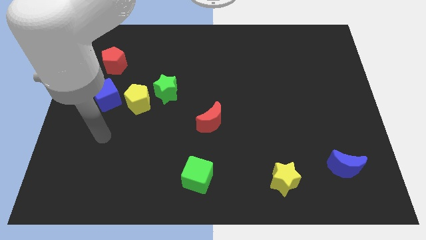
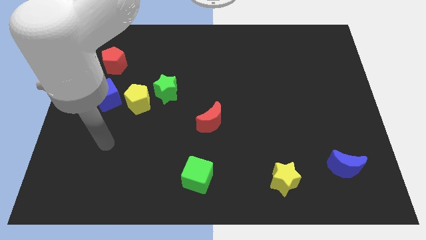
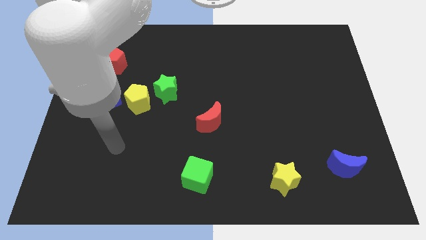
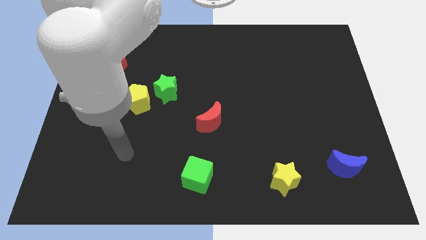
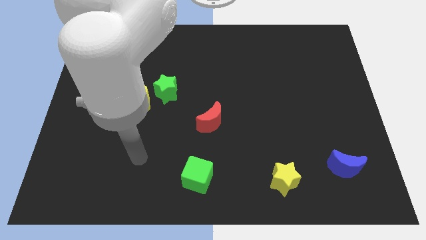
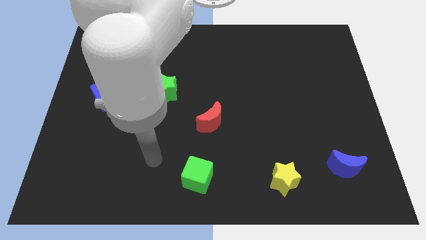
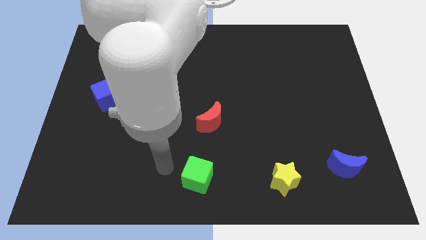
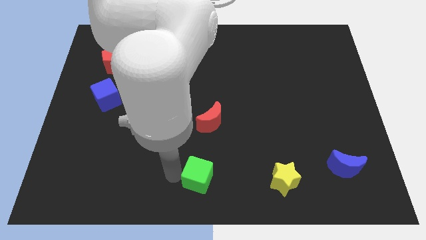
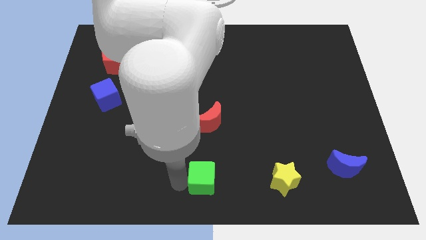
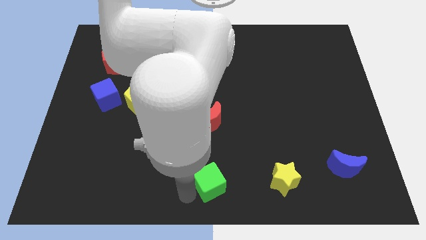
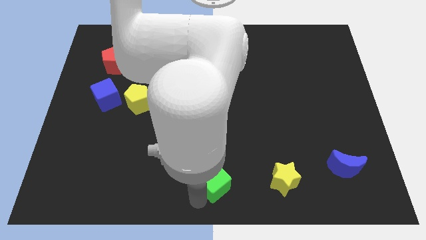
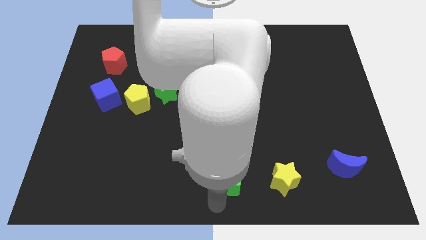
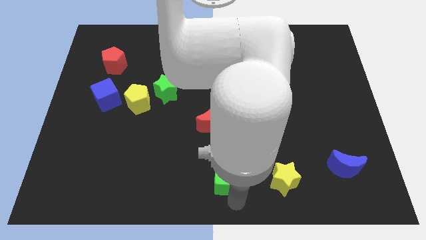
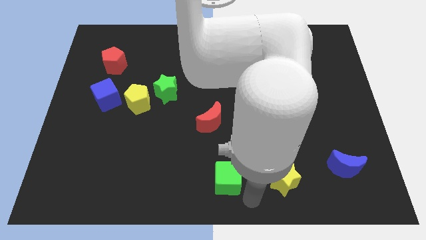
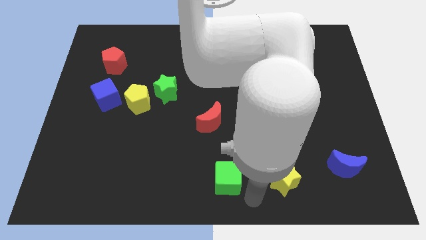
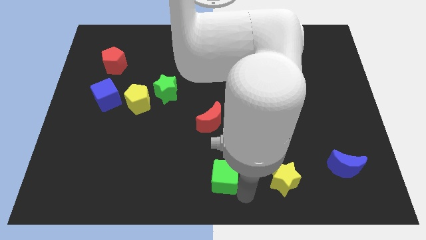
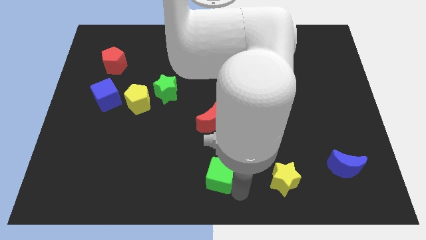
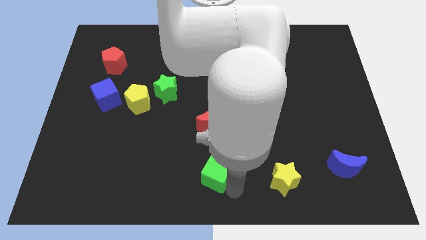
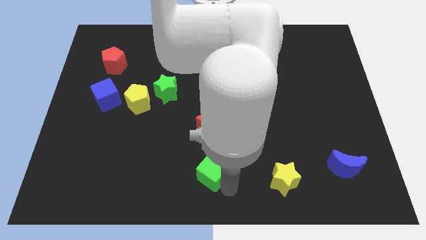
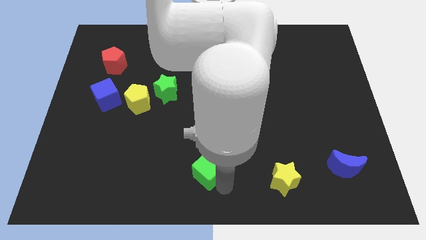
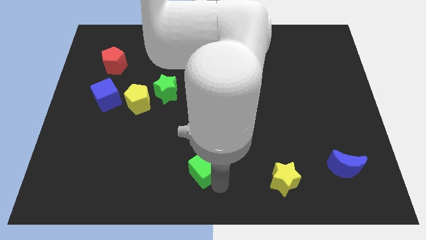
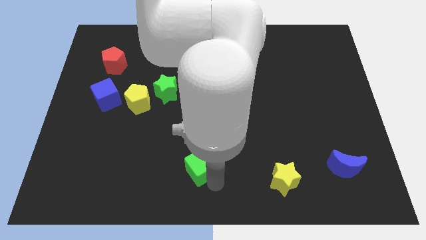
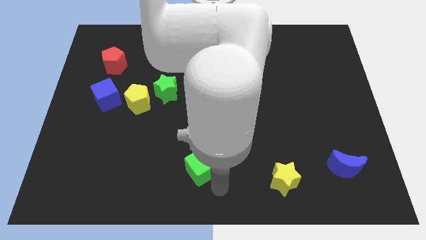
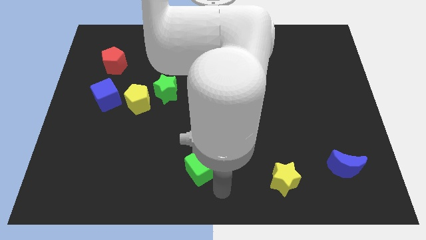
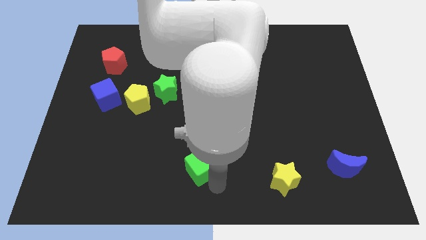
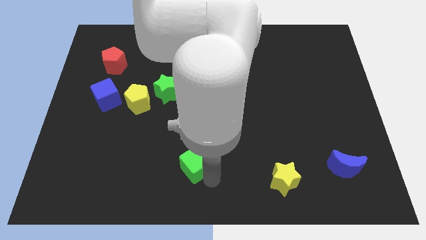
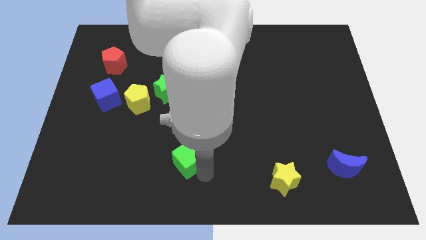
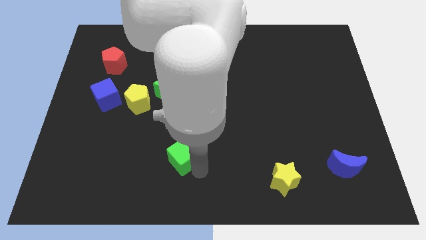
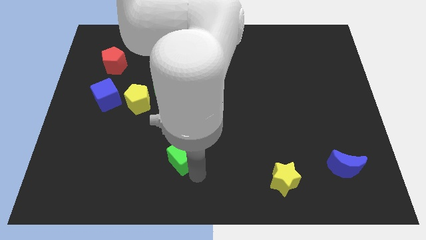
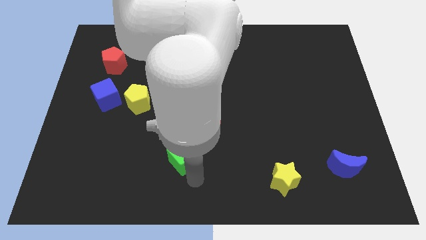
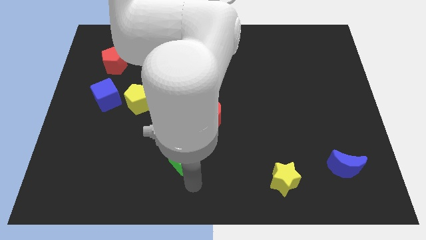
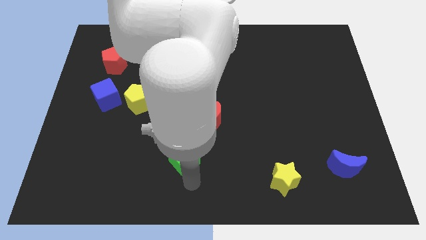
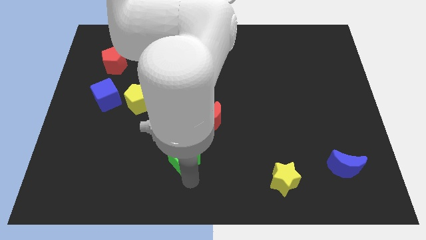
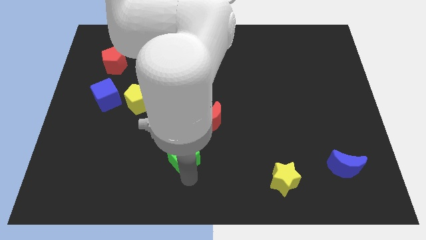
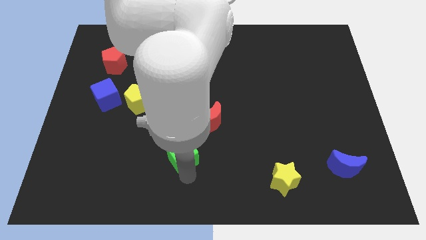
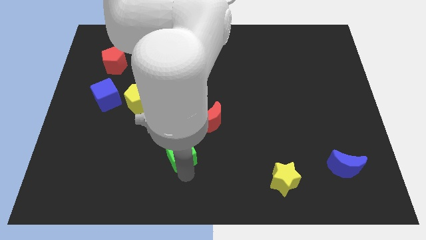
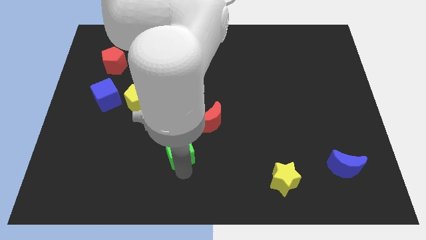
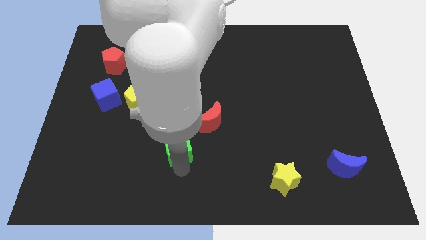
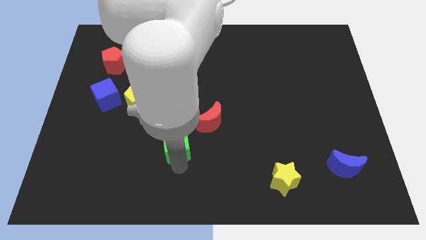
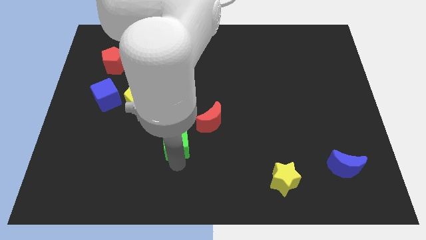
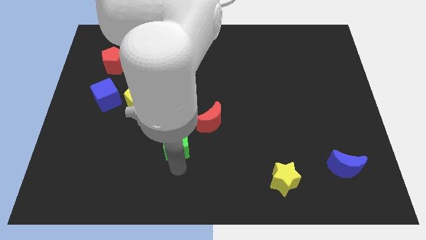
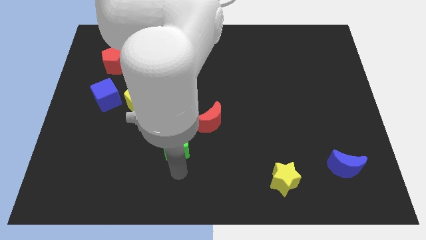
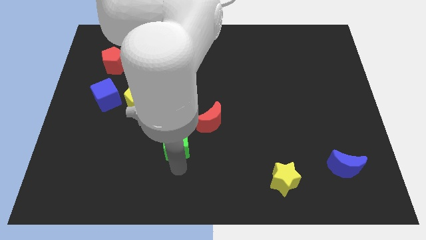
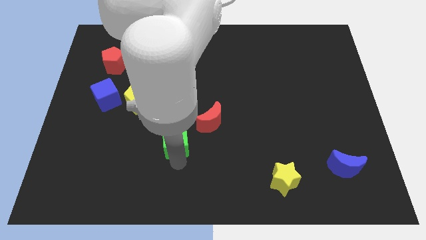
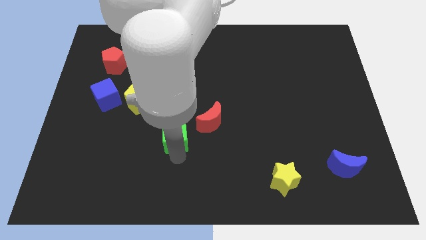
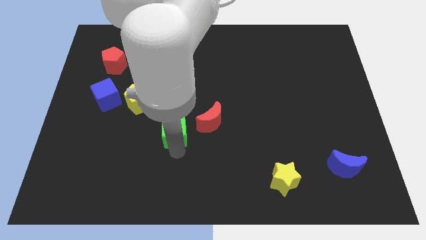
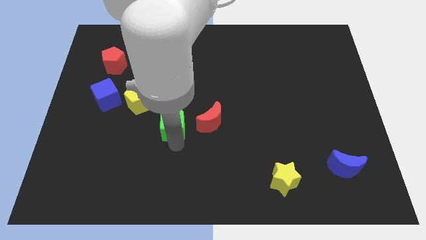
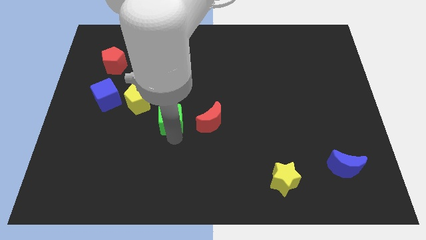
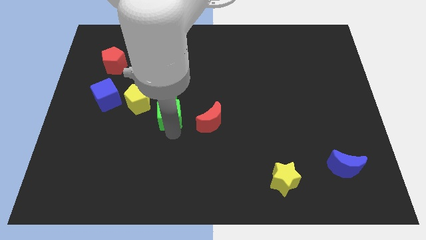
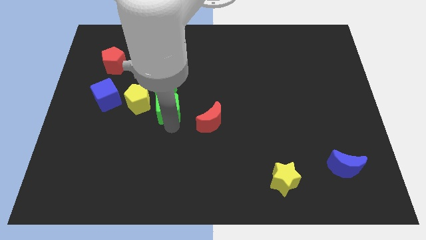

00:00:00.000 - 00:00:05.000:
slide the green cube towards the green star

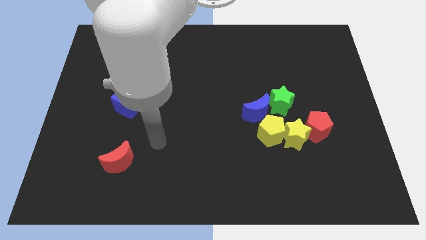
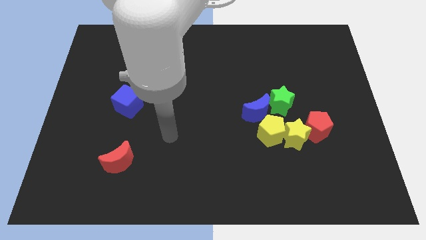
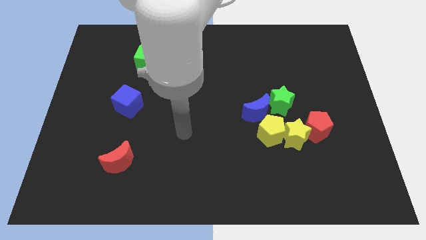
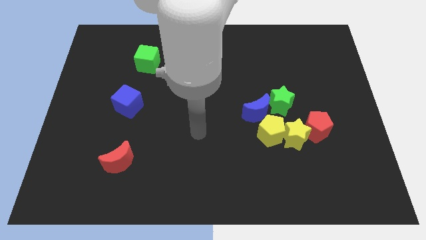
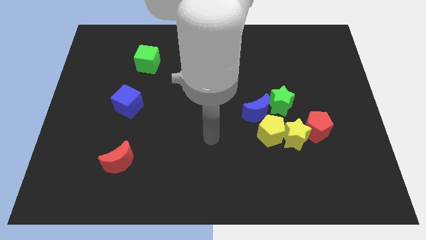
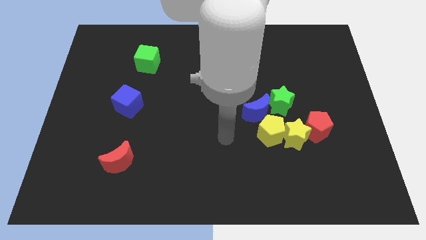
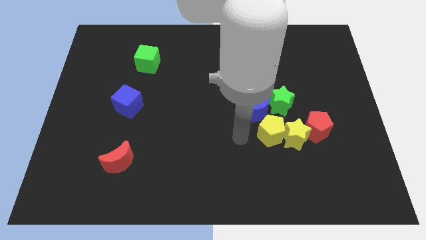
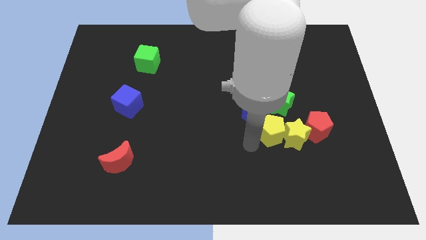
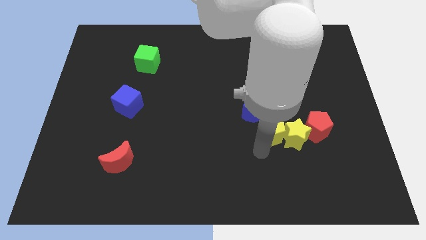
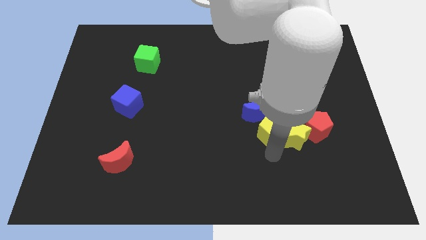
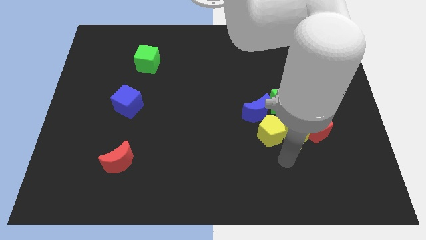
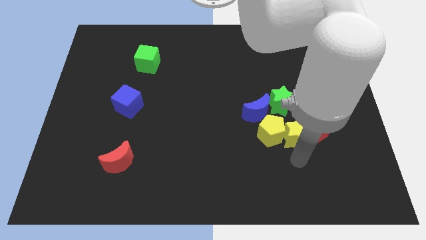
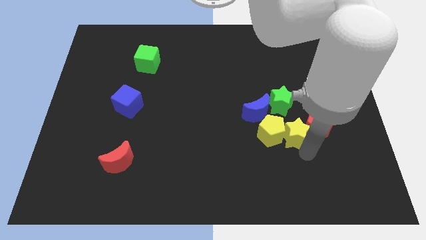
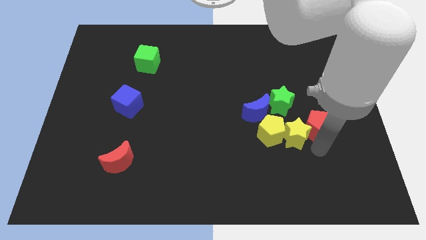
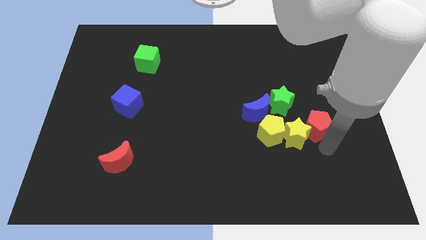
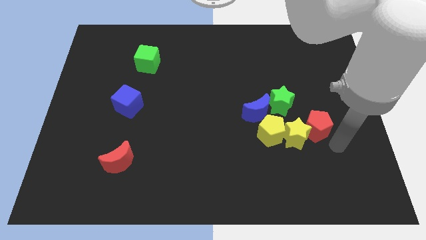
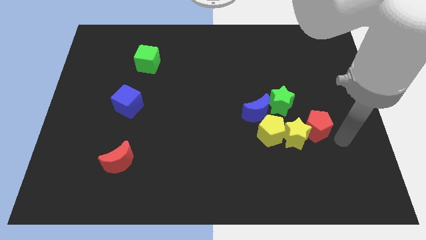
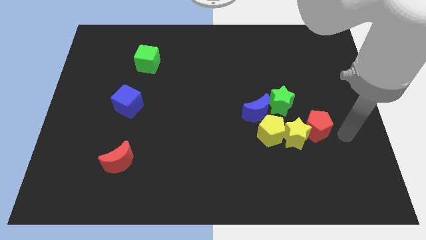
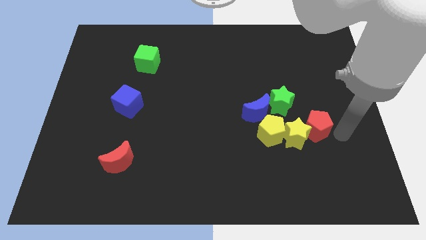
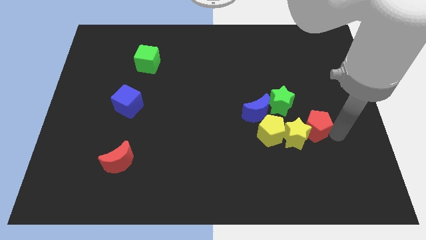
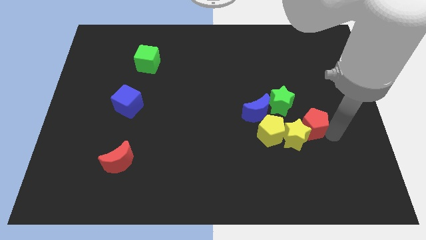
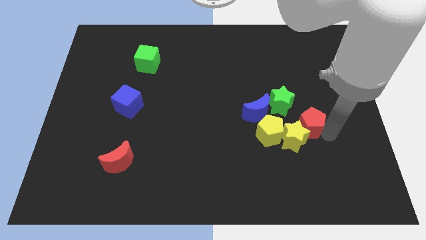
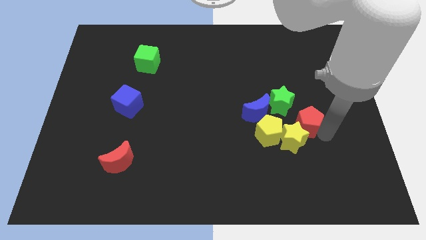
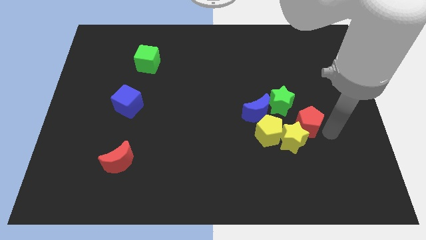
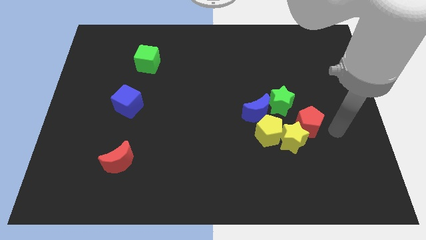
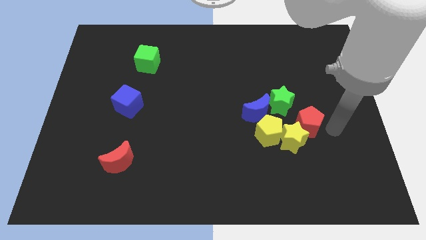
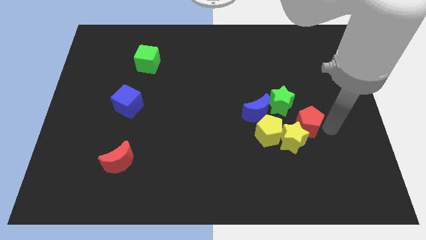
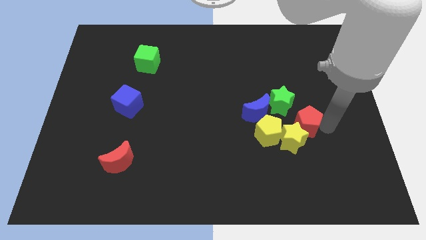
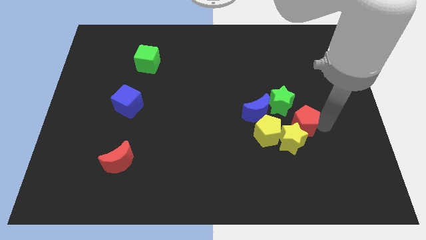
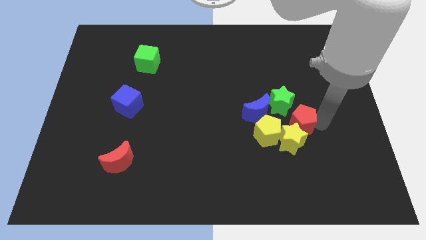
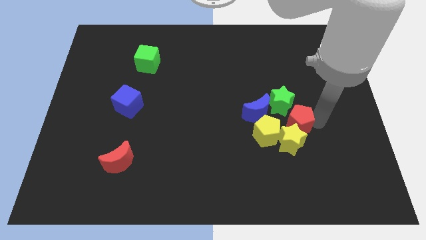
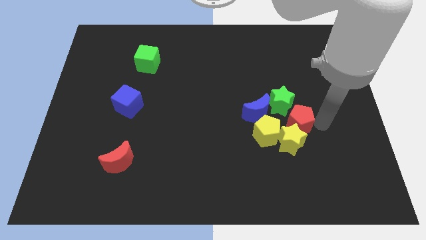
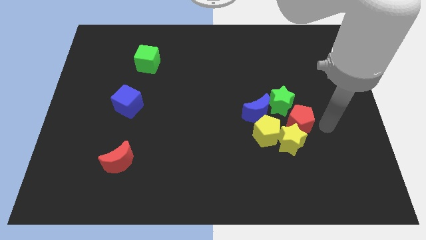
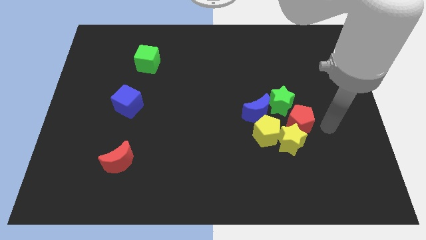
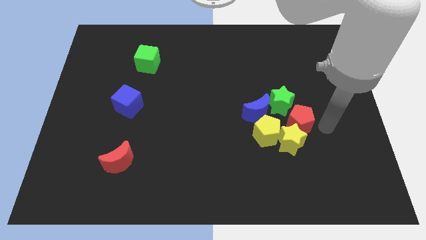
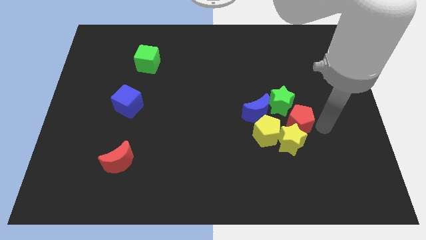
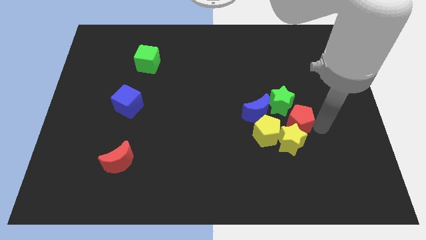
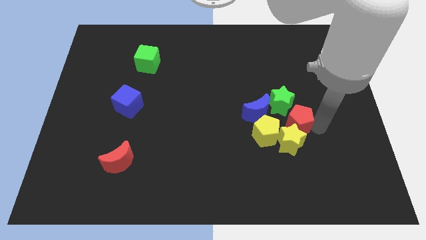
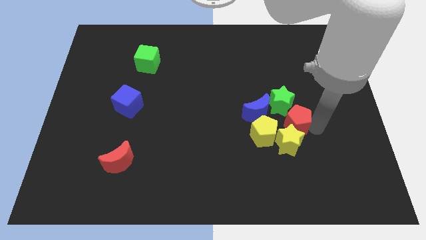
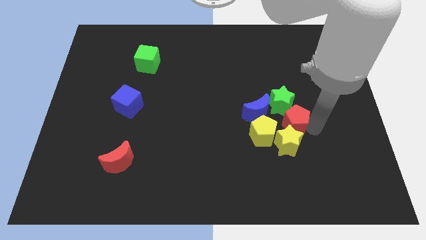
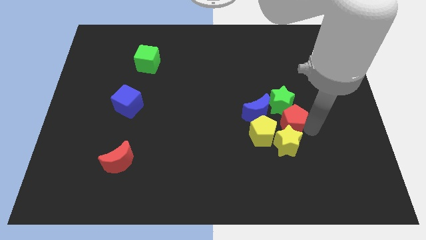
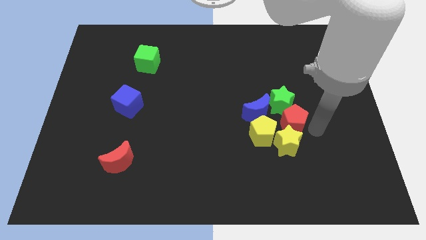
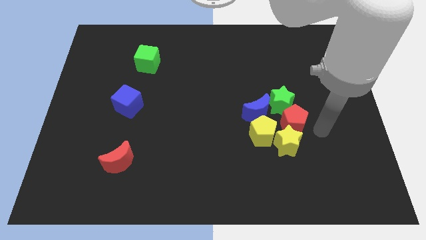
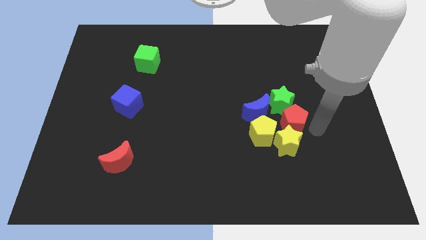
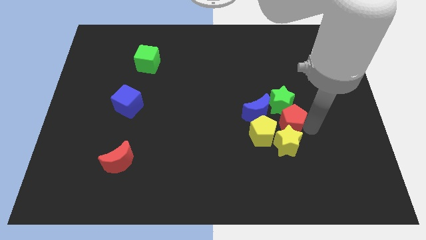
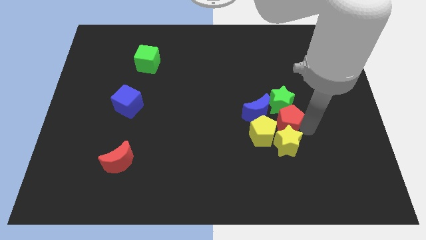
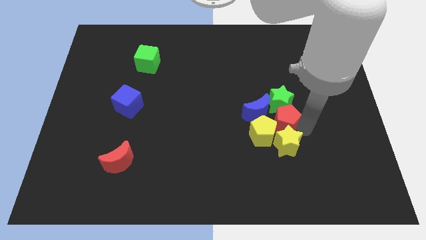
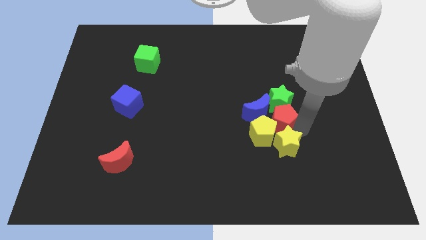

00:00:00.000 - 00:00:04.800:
push the red pentagon to the yellow pentagon
